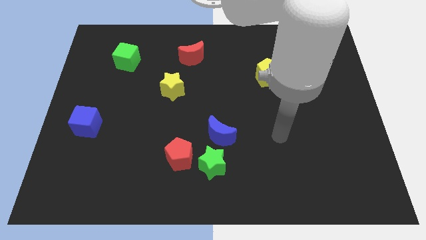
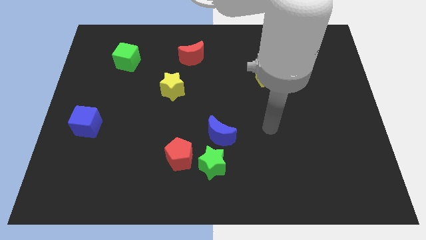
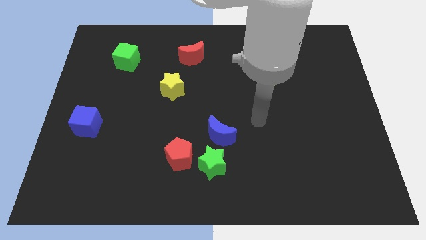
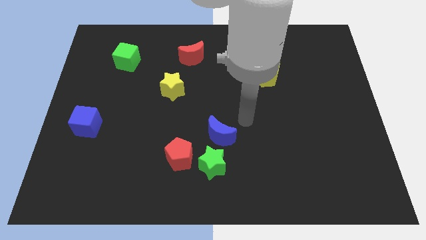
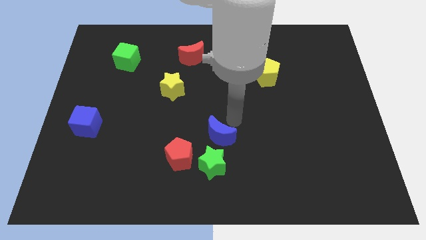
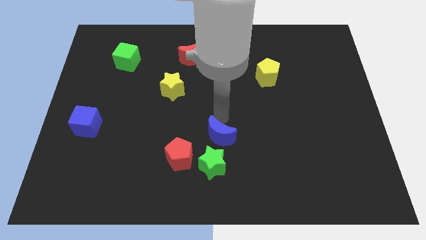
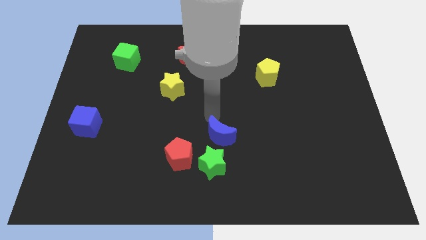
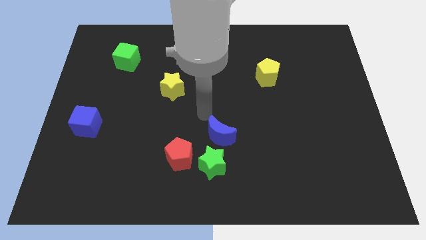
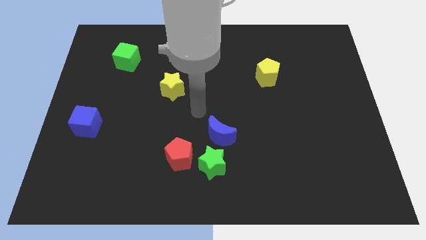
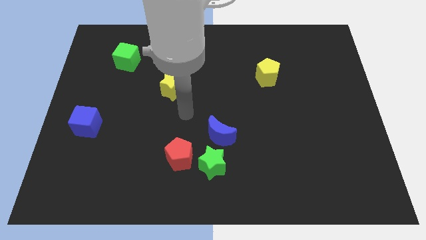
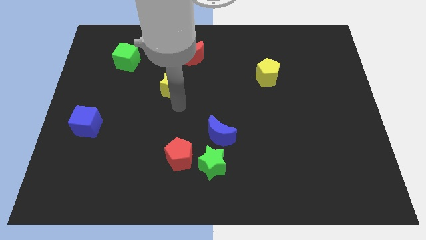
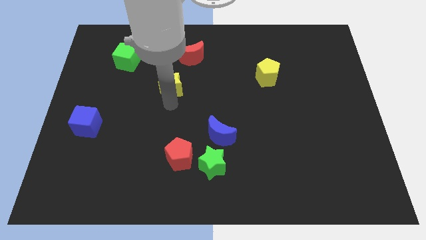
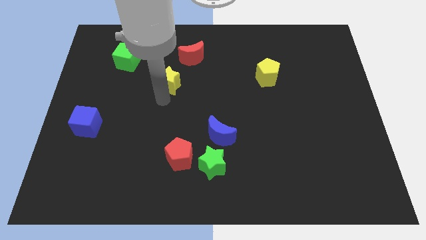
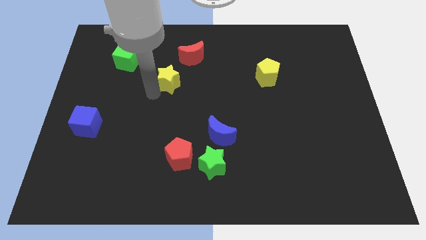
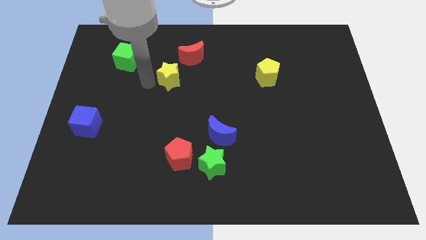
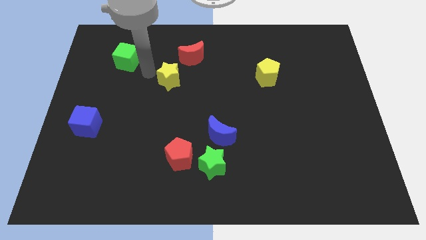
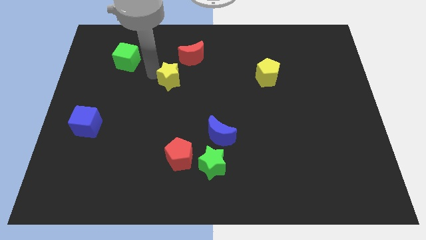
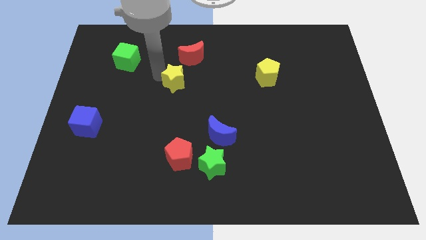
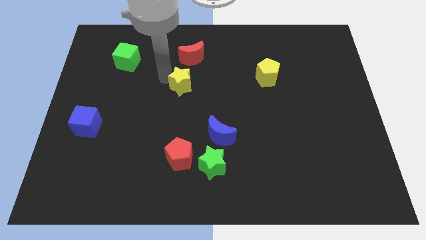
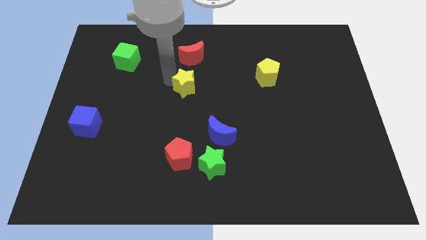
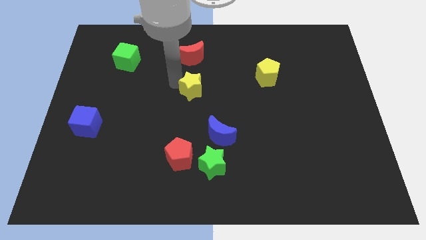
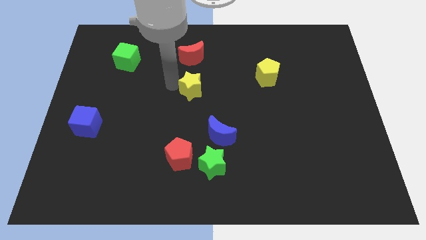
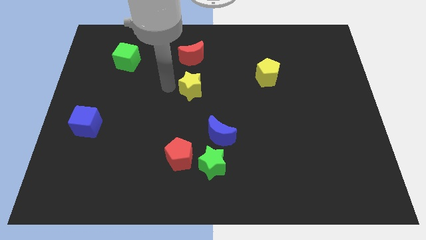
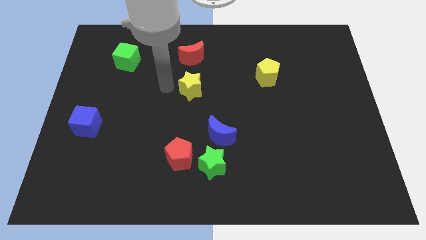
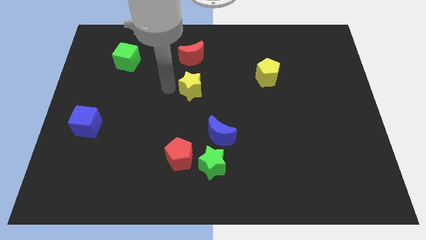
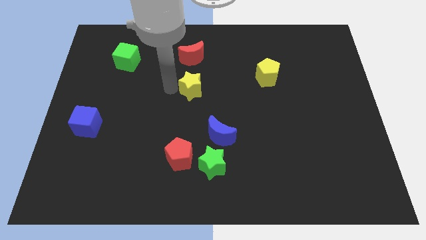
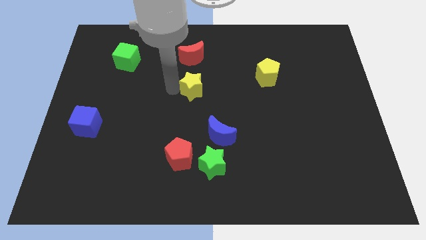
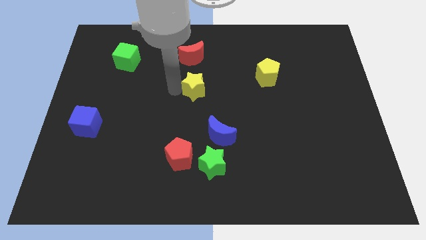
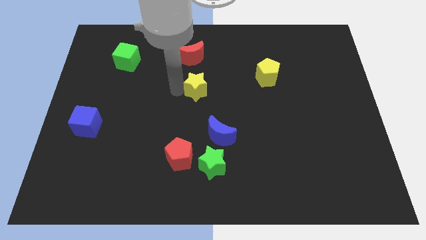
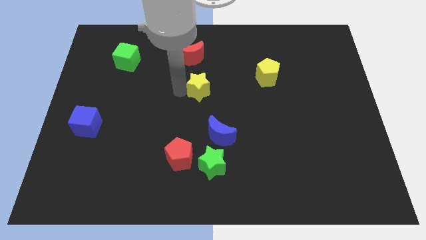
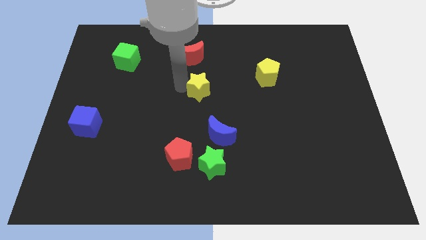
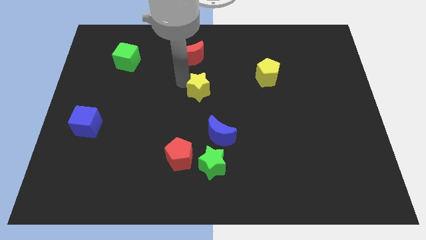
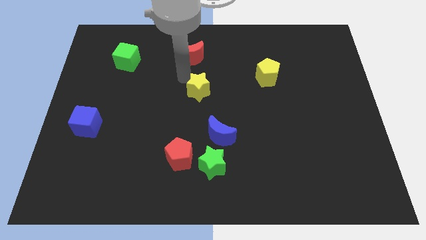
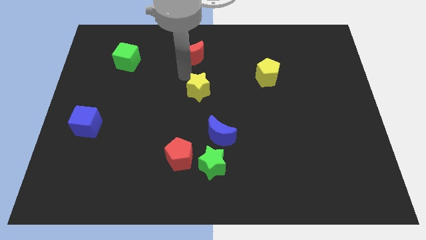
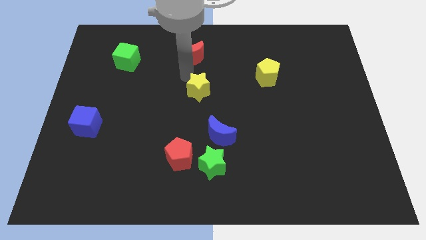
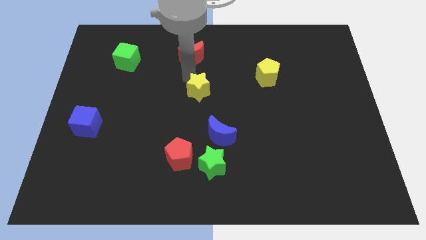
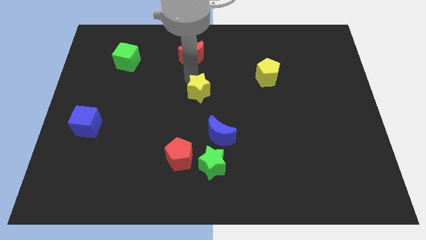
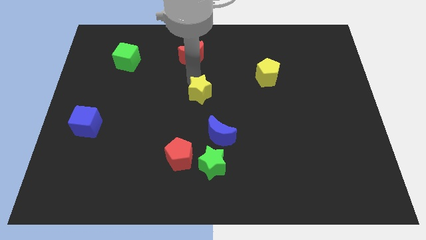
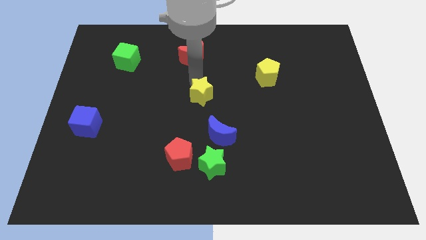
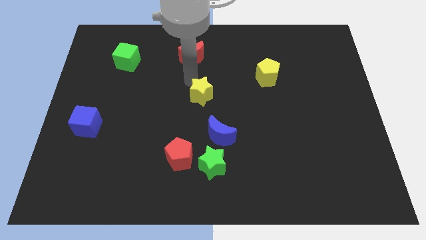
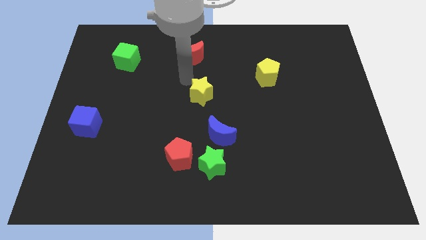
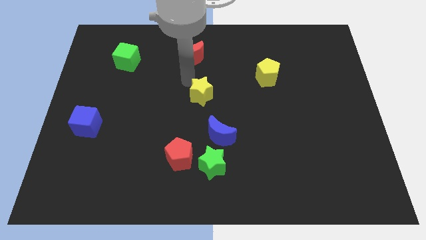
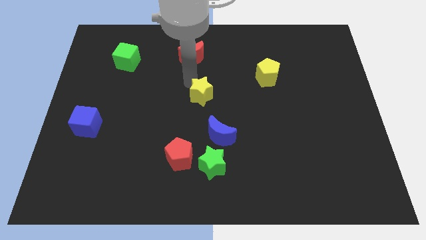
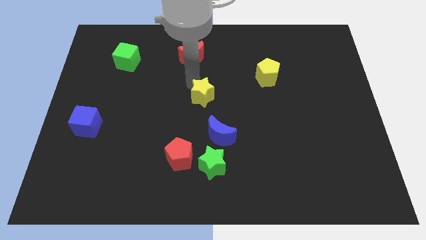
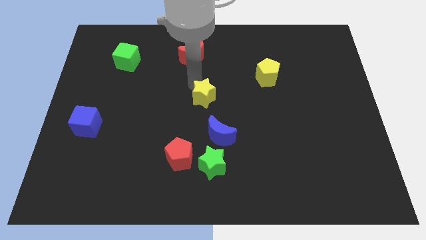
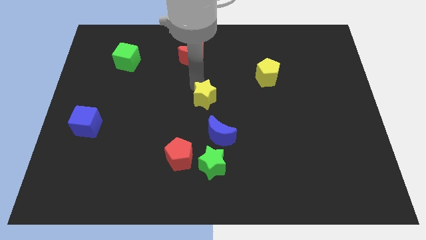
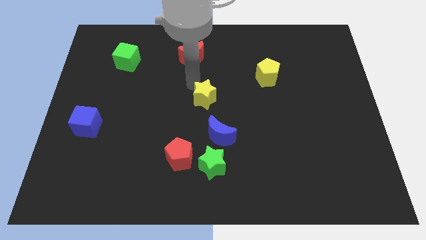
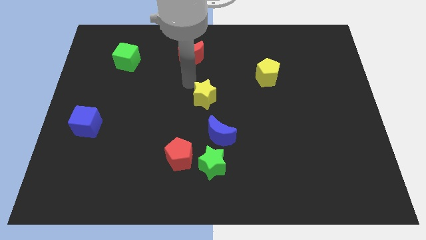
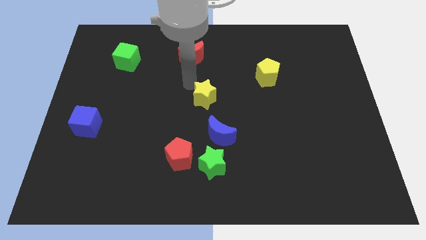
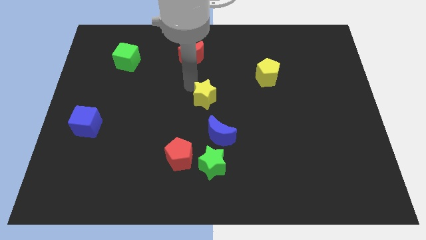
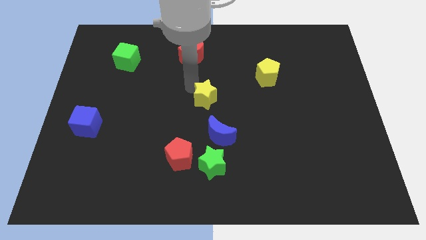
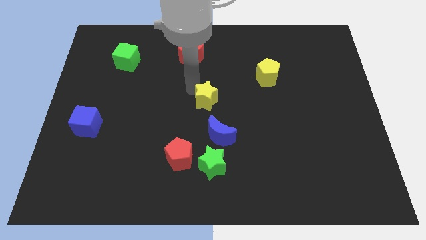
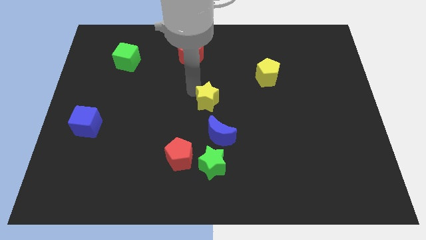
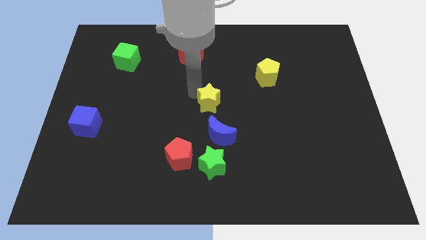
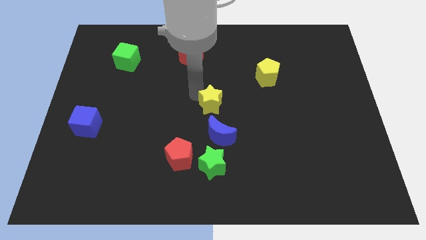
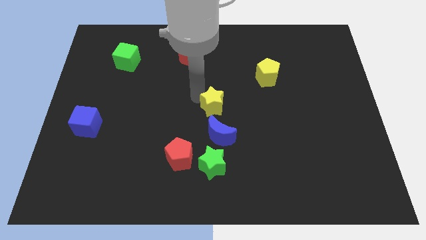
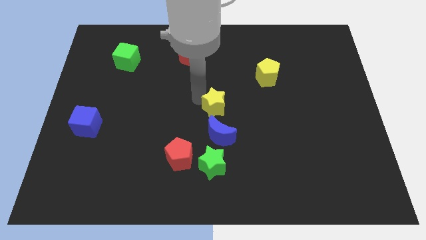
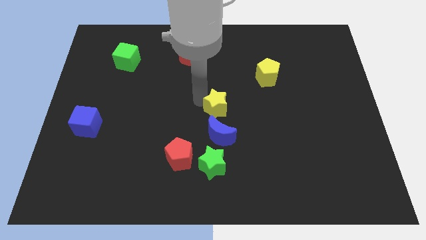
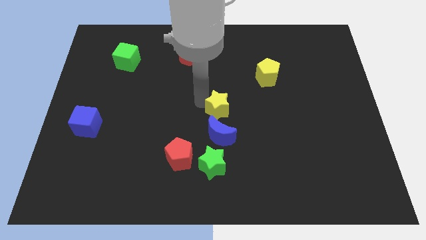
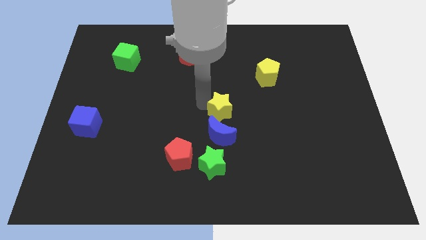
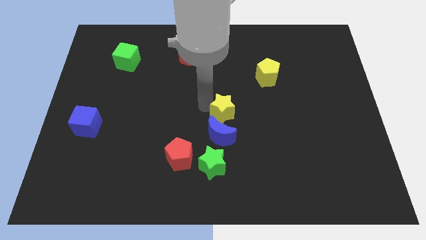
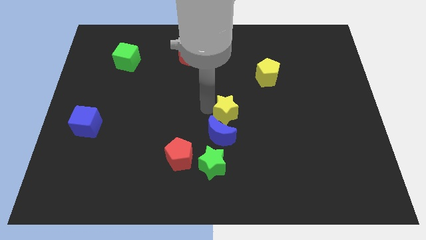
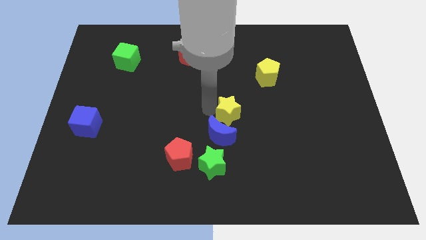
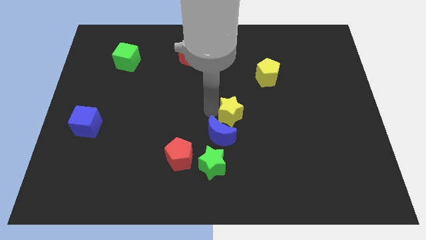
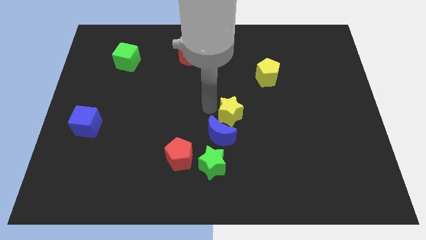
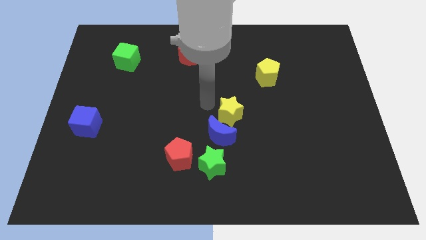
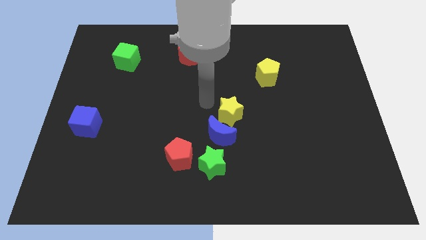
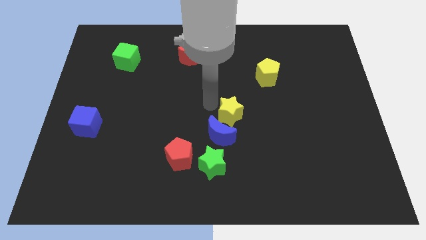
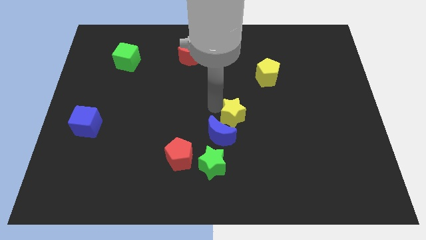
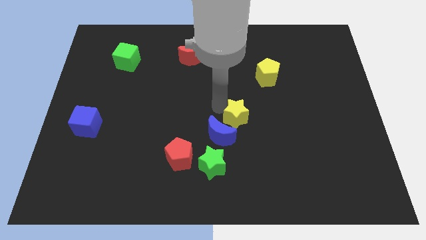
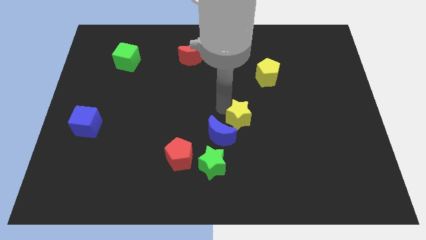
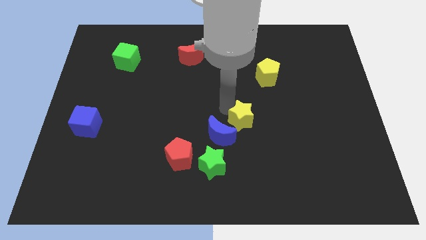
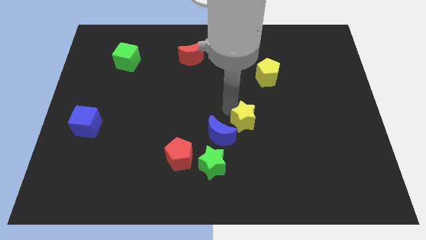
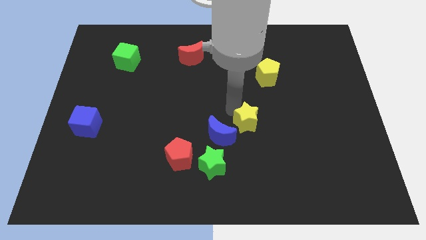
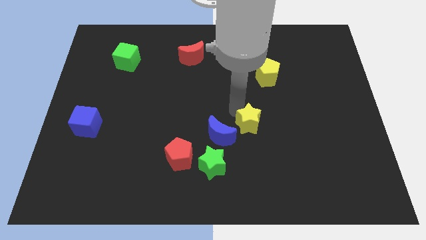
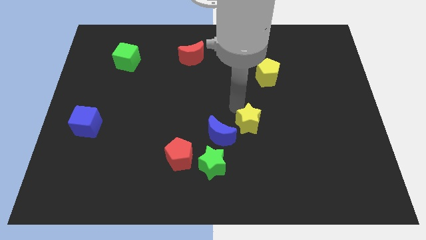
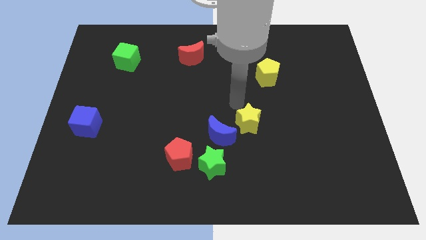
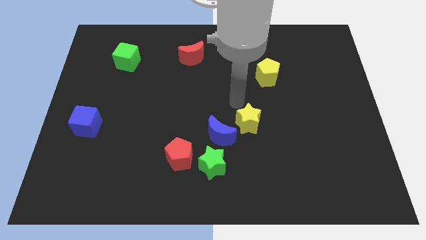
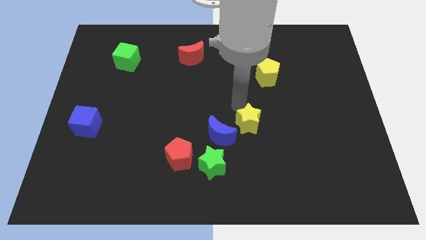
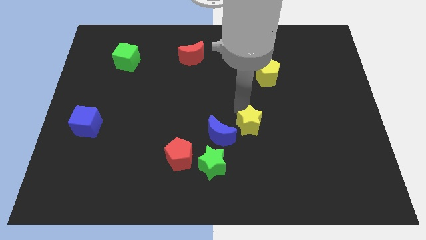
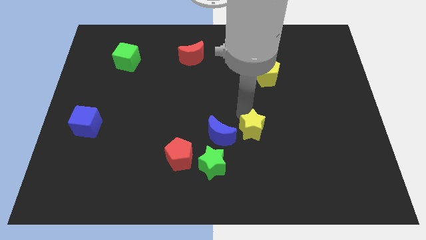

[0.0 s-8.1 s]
move the yellow star downwards and to the right diagonally

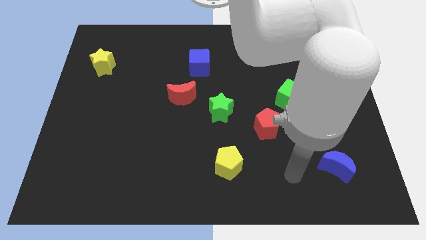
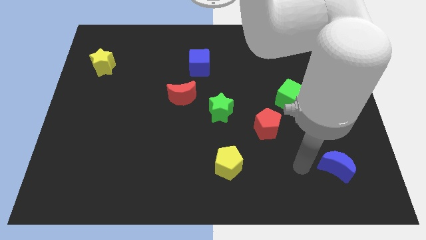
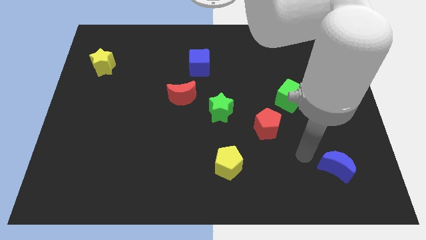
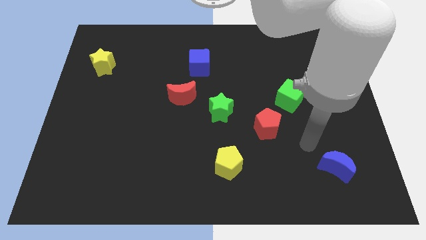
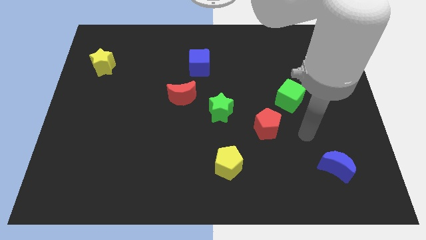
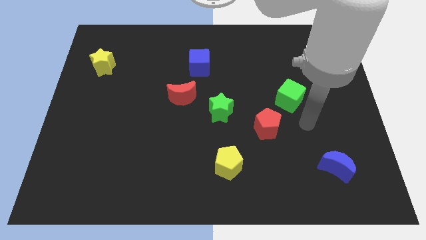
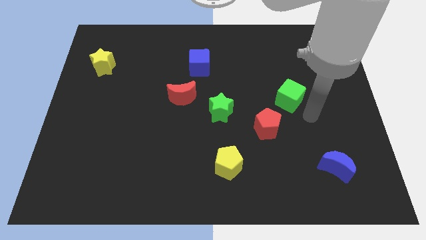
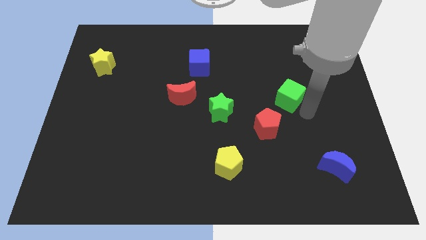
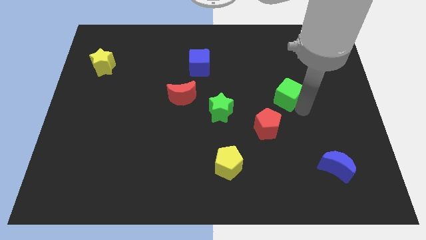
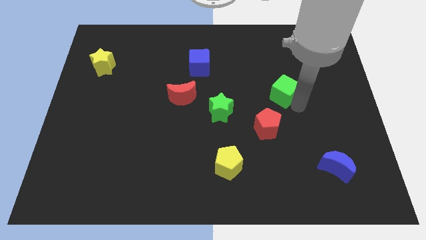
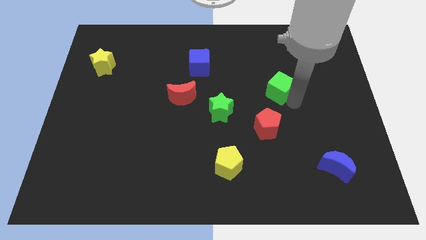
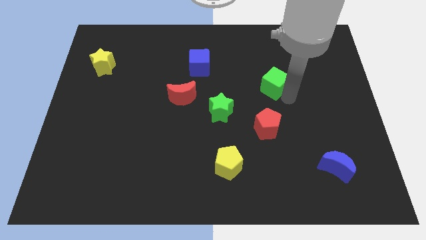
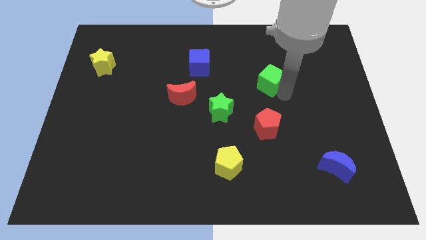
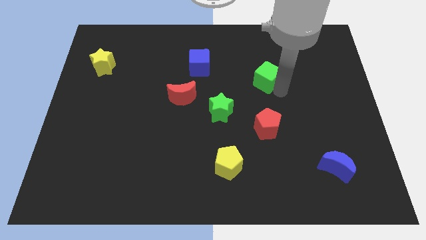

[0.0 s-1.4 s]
move the green cube a little upwards and left
